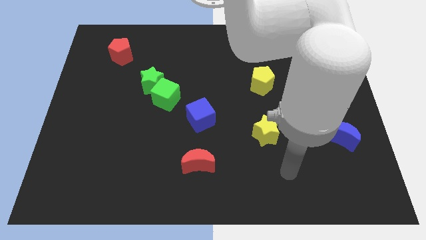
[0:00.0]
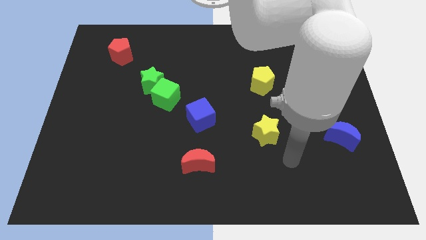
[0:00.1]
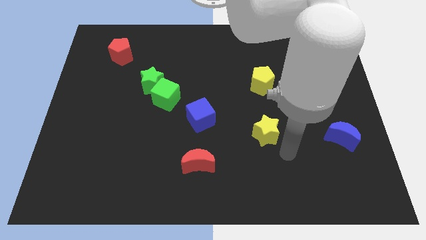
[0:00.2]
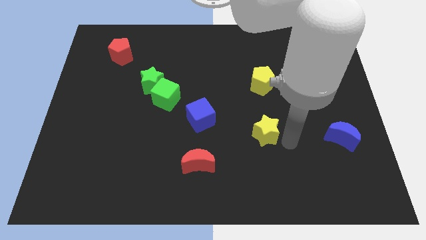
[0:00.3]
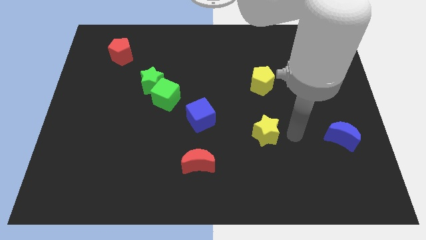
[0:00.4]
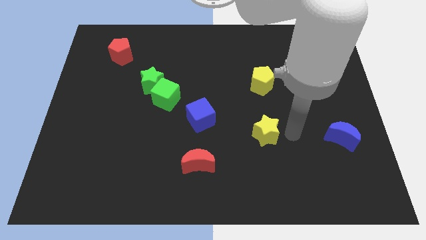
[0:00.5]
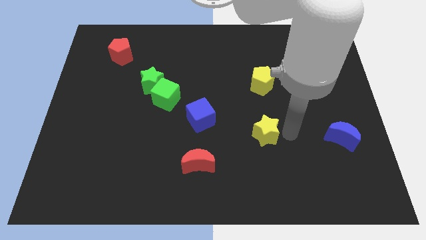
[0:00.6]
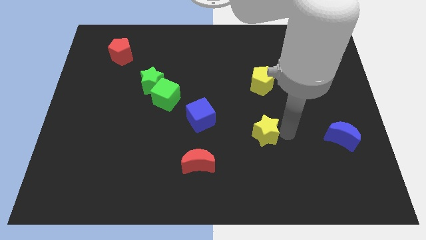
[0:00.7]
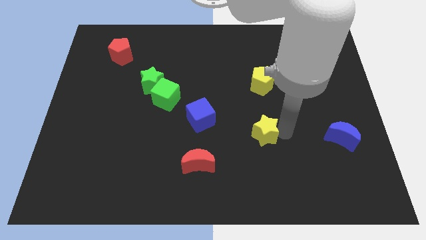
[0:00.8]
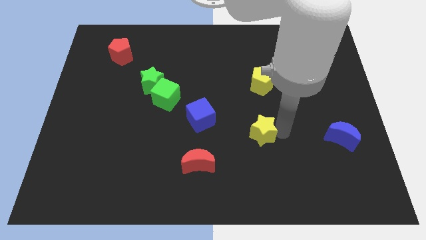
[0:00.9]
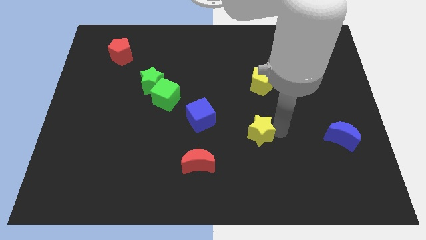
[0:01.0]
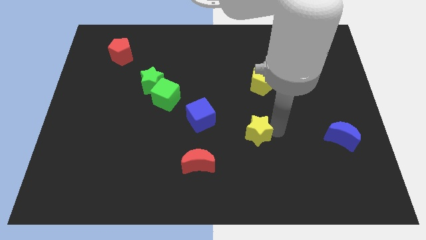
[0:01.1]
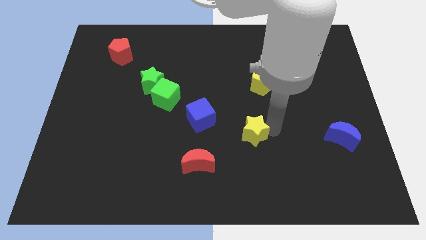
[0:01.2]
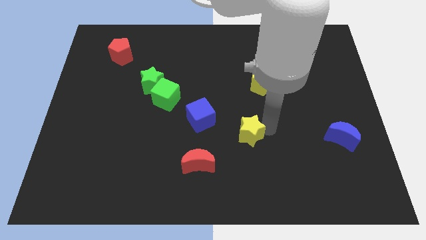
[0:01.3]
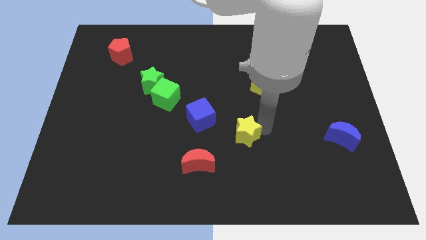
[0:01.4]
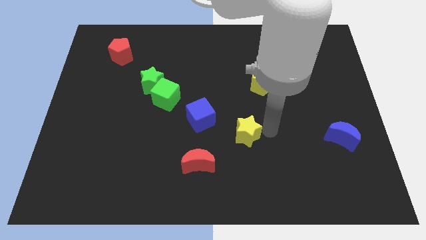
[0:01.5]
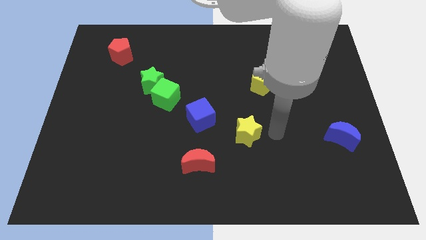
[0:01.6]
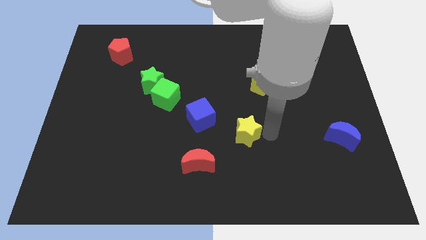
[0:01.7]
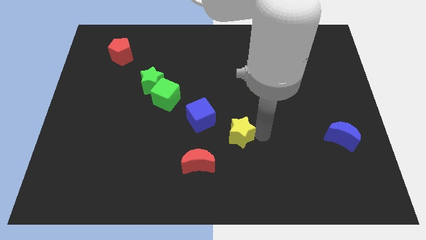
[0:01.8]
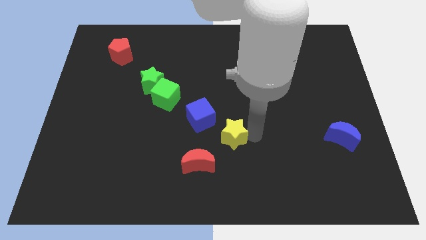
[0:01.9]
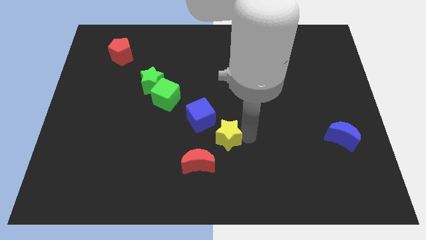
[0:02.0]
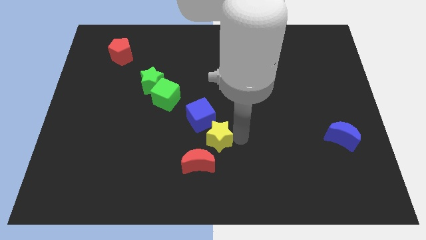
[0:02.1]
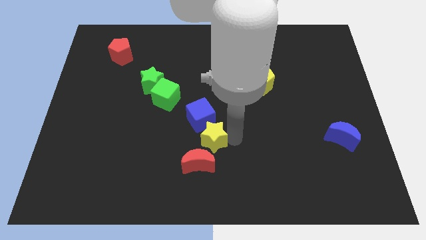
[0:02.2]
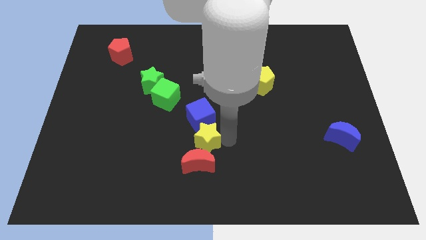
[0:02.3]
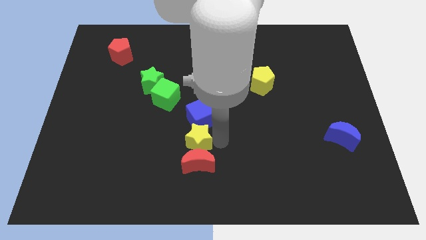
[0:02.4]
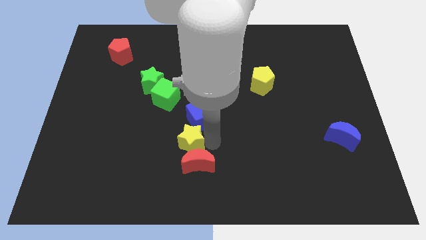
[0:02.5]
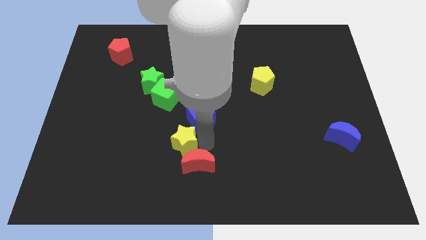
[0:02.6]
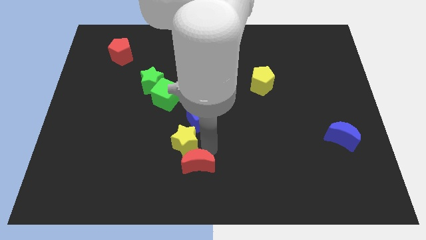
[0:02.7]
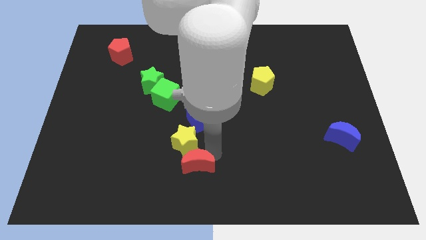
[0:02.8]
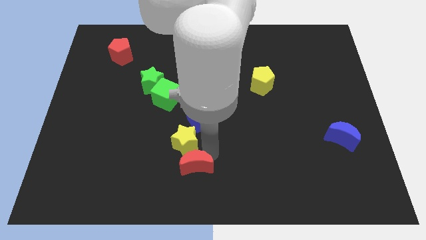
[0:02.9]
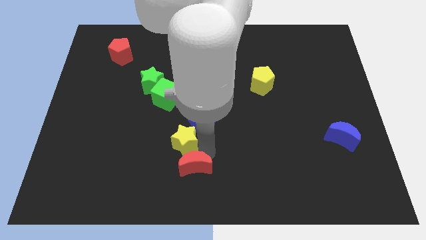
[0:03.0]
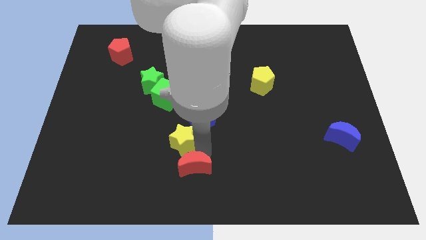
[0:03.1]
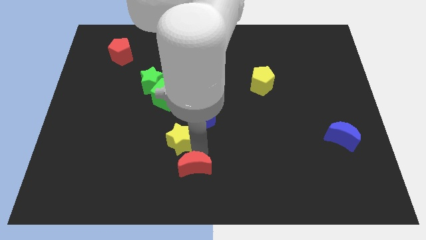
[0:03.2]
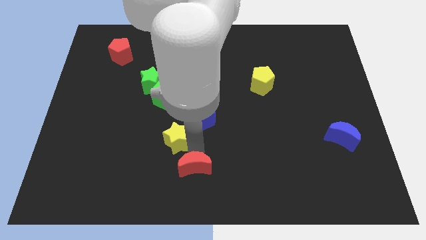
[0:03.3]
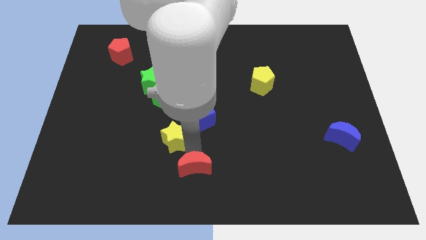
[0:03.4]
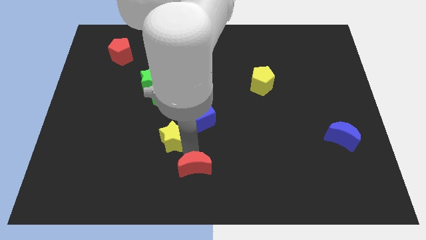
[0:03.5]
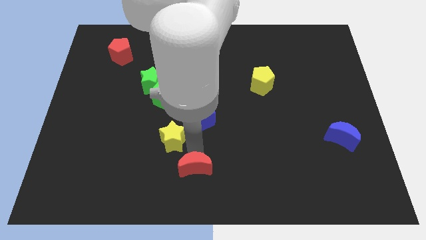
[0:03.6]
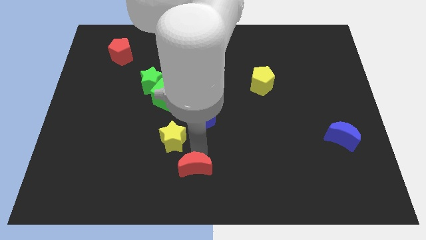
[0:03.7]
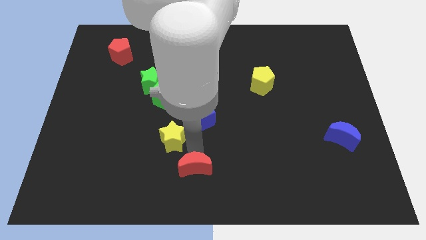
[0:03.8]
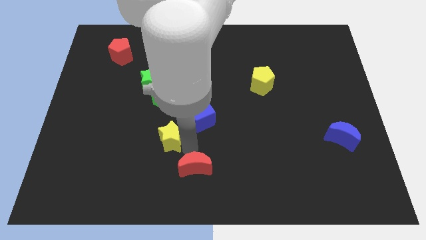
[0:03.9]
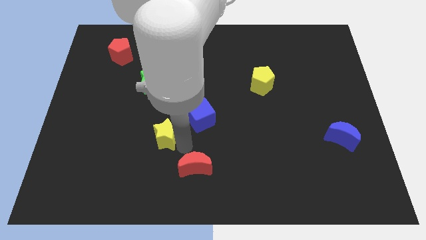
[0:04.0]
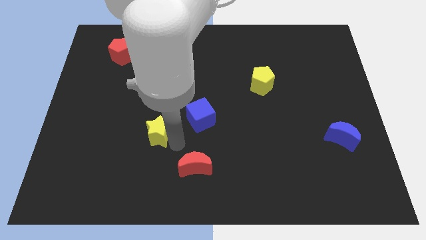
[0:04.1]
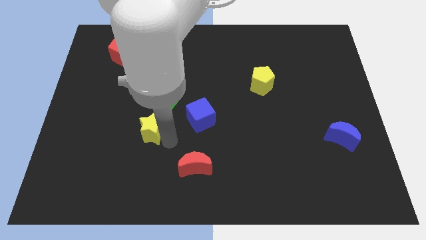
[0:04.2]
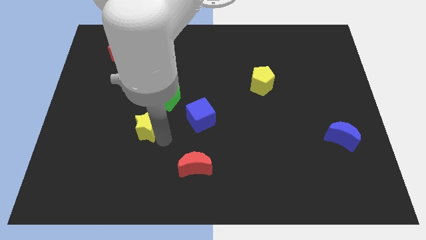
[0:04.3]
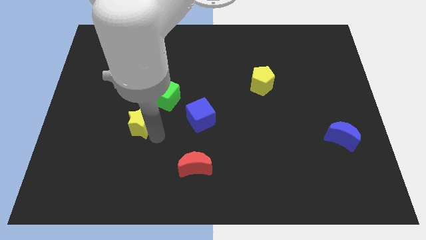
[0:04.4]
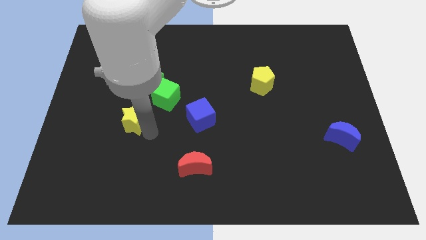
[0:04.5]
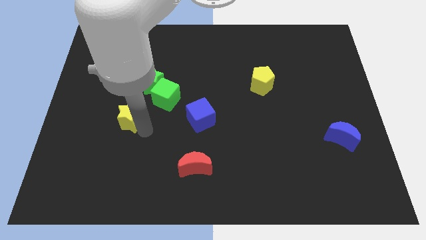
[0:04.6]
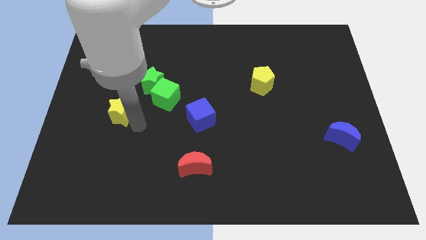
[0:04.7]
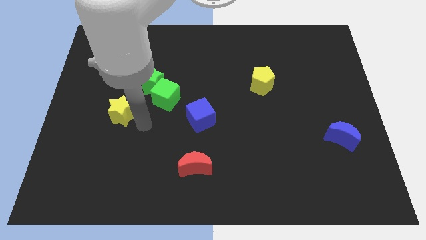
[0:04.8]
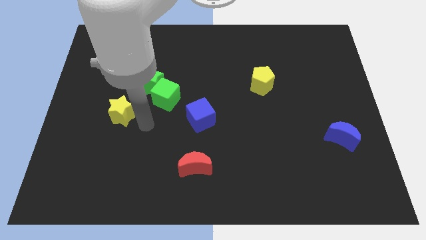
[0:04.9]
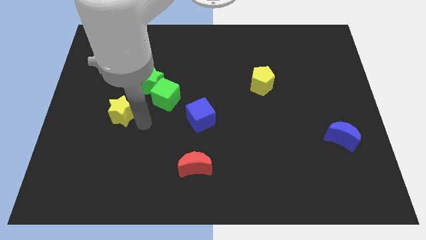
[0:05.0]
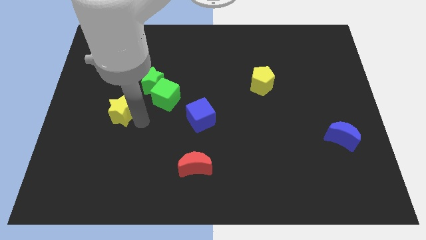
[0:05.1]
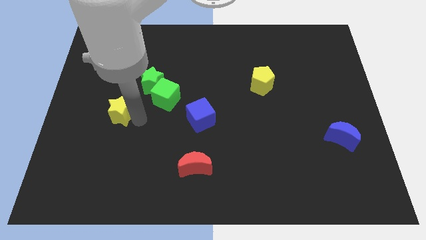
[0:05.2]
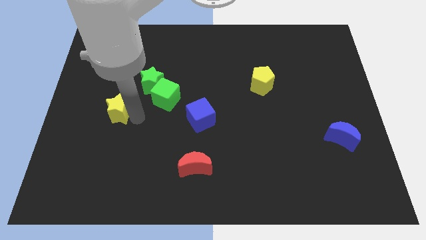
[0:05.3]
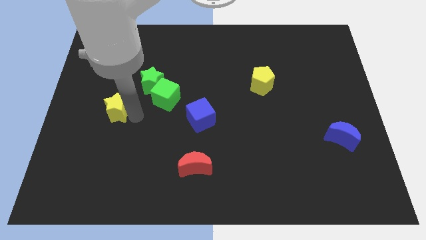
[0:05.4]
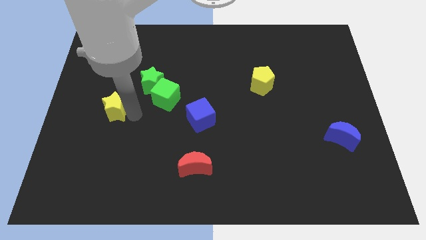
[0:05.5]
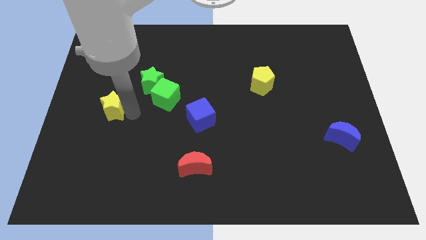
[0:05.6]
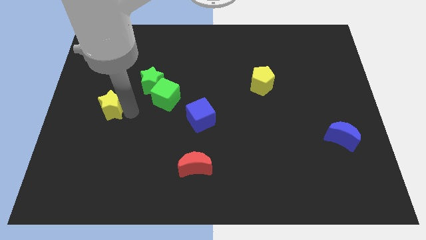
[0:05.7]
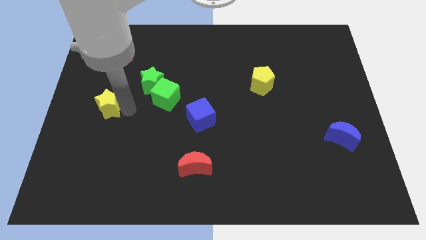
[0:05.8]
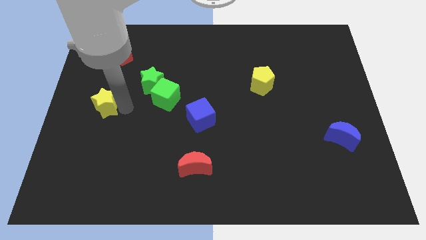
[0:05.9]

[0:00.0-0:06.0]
move the yellow star to the left side of the board
